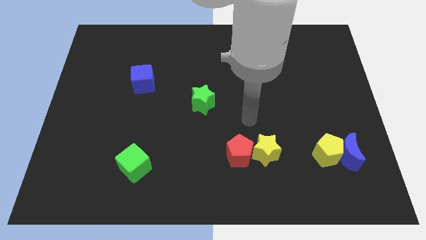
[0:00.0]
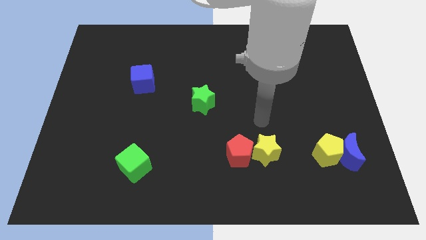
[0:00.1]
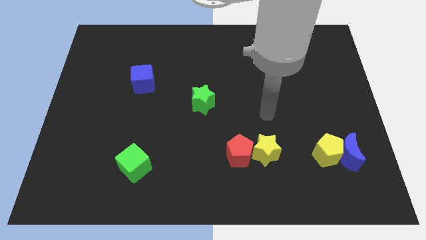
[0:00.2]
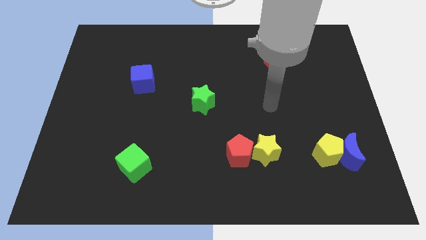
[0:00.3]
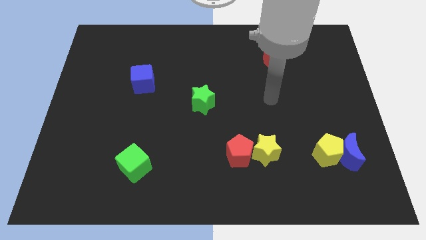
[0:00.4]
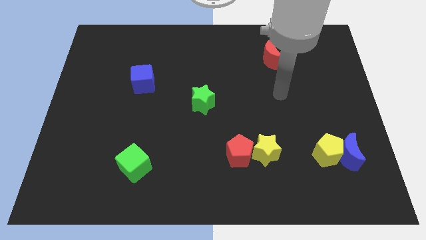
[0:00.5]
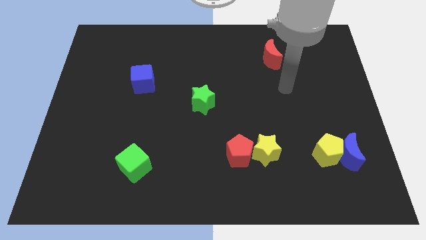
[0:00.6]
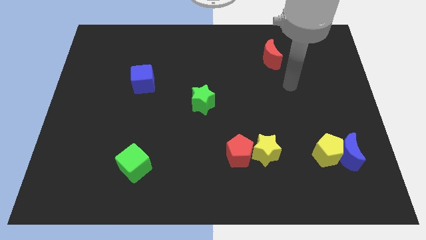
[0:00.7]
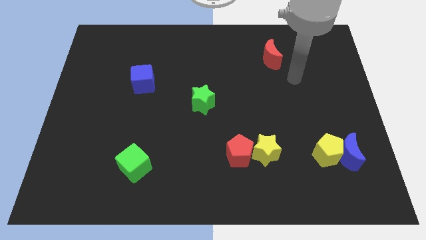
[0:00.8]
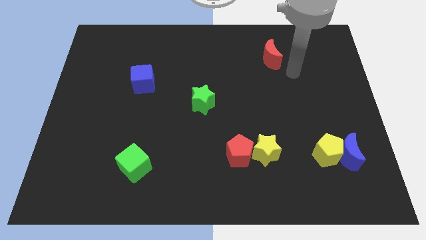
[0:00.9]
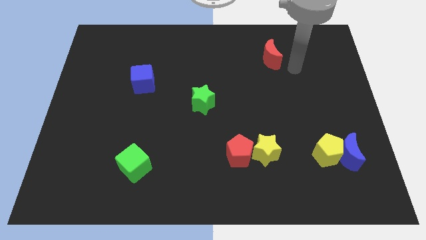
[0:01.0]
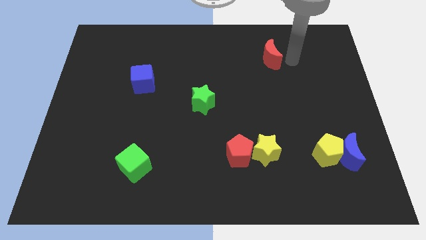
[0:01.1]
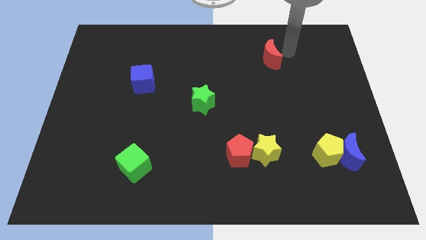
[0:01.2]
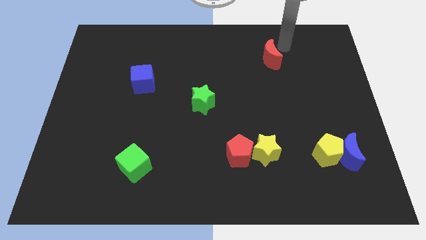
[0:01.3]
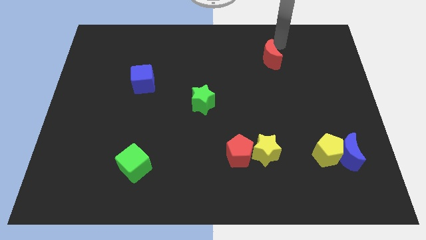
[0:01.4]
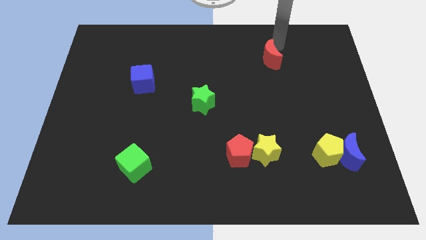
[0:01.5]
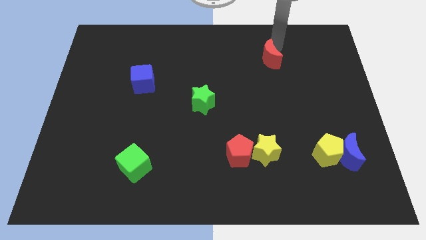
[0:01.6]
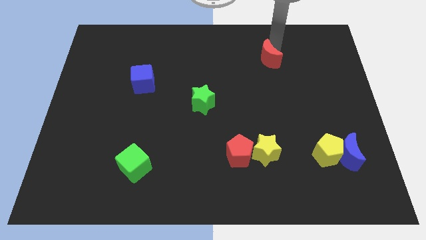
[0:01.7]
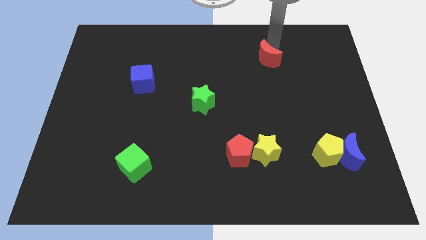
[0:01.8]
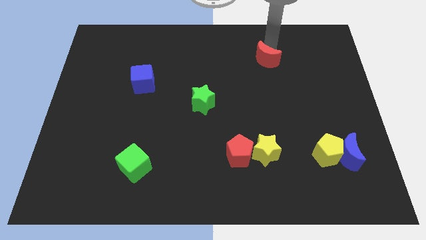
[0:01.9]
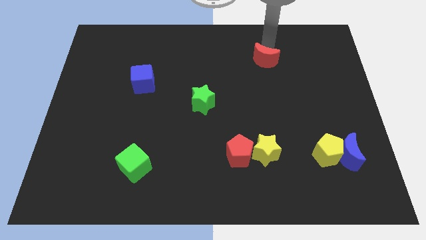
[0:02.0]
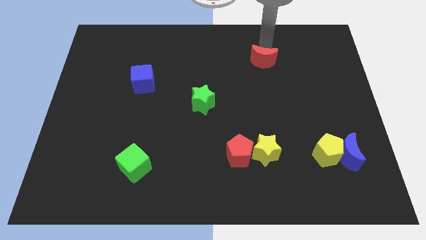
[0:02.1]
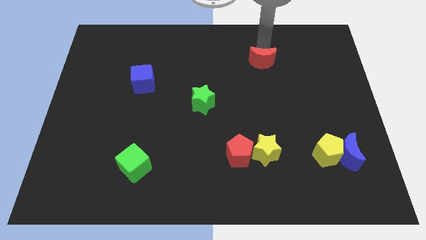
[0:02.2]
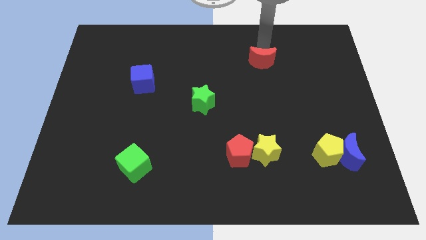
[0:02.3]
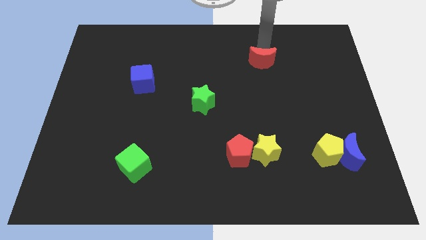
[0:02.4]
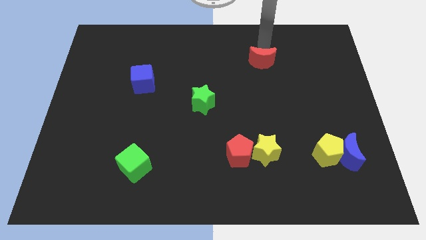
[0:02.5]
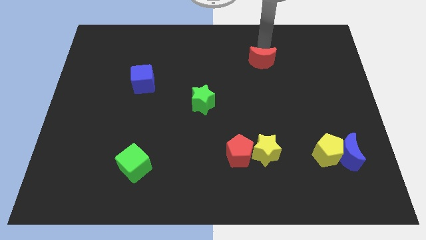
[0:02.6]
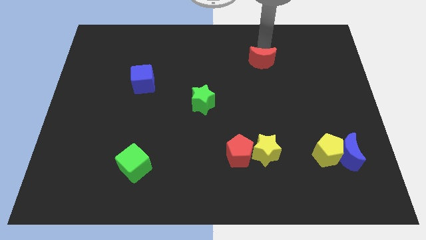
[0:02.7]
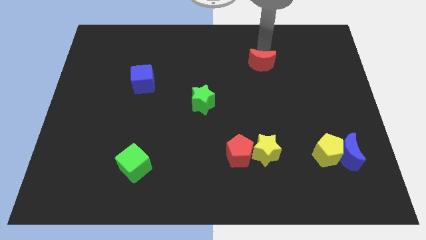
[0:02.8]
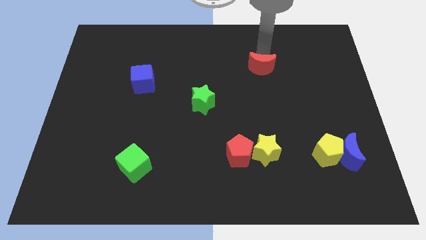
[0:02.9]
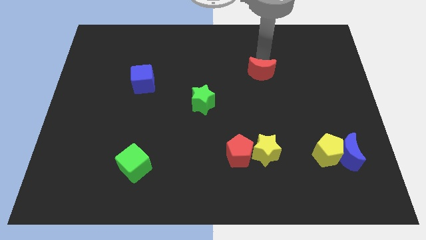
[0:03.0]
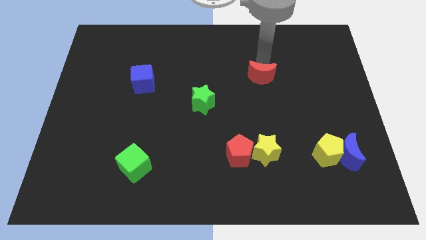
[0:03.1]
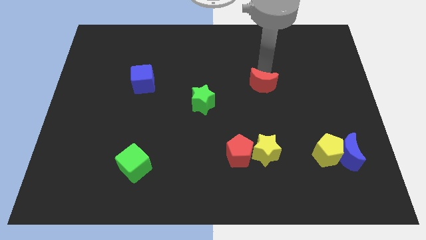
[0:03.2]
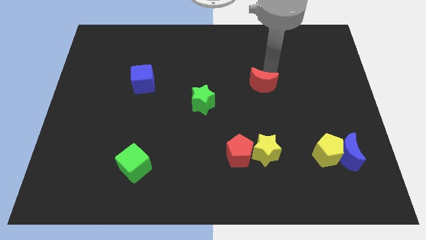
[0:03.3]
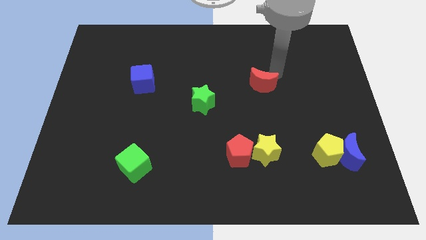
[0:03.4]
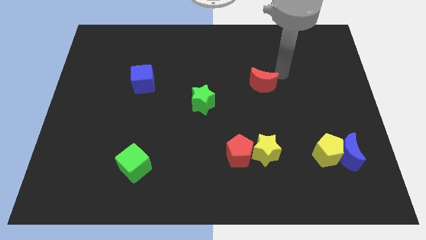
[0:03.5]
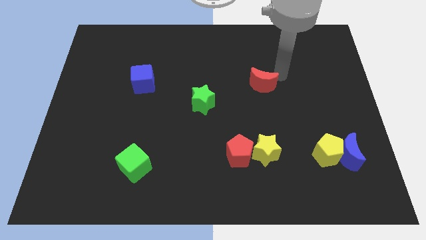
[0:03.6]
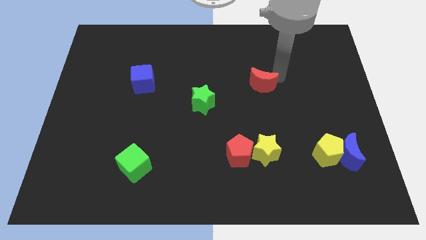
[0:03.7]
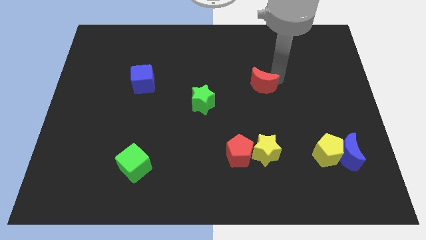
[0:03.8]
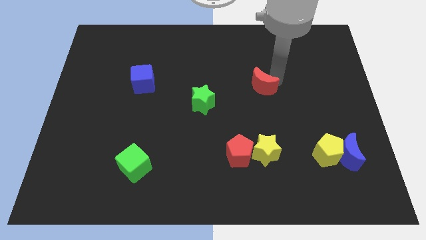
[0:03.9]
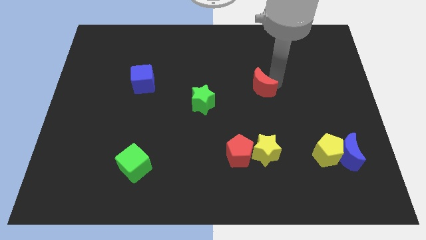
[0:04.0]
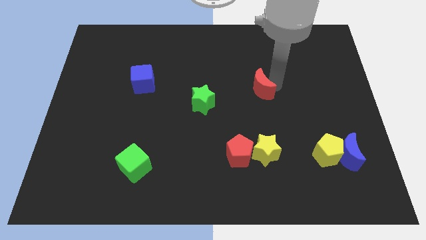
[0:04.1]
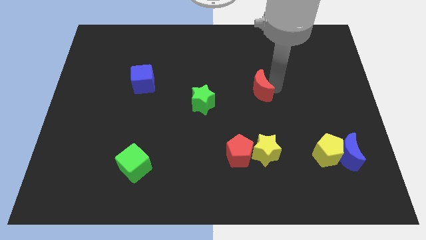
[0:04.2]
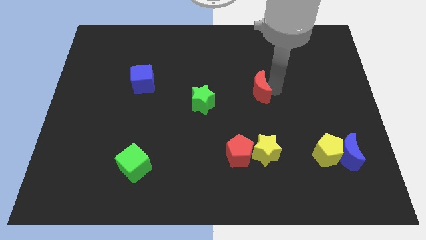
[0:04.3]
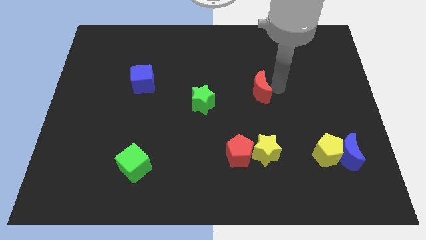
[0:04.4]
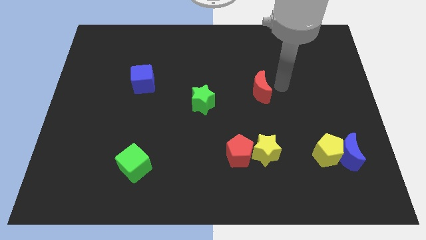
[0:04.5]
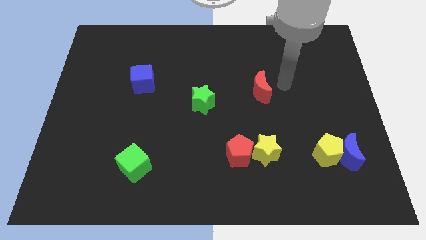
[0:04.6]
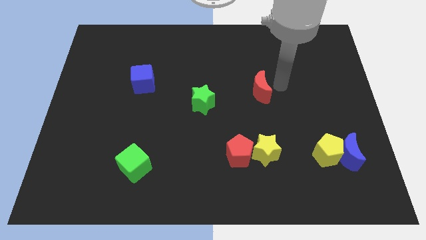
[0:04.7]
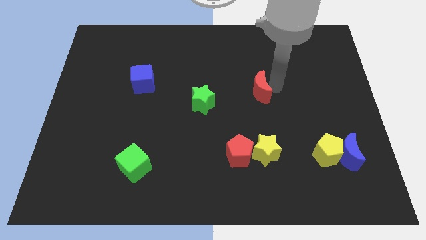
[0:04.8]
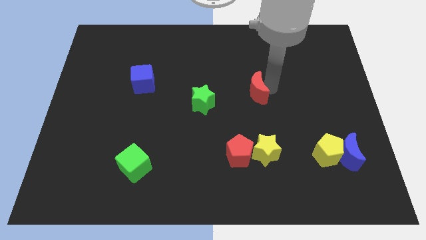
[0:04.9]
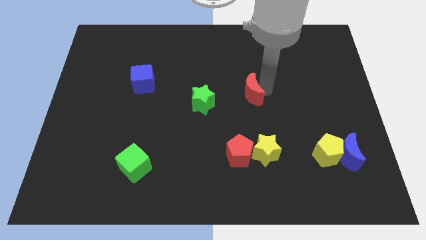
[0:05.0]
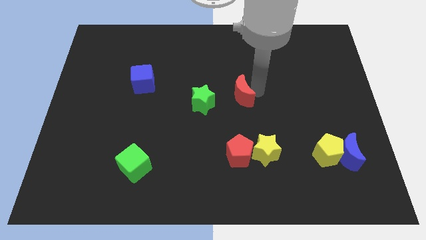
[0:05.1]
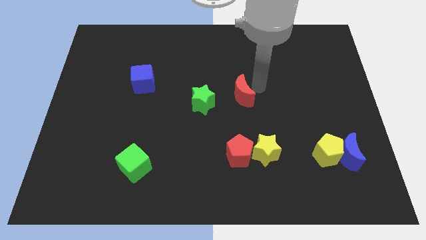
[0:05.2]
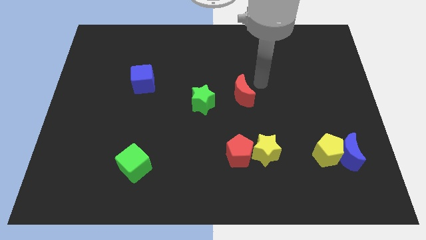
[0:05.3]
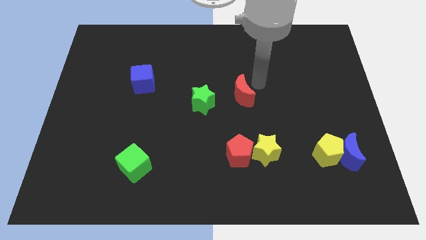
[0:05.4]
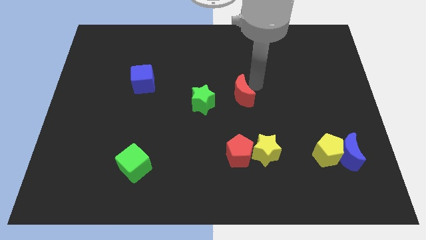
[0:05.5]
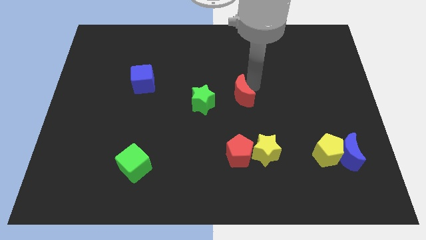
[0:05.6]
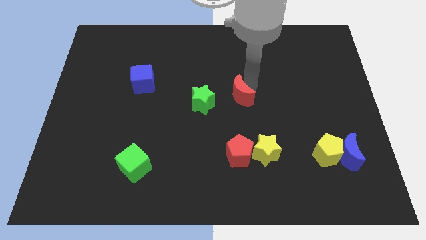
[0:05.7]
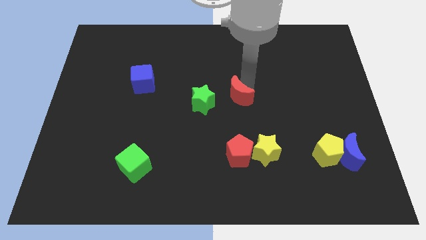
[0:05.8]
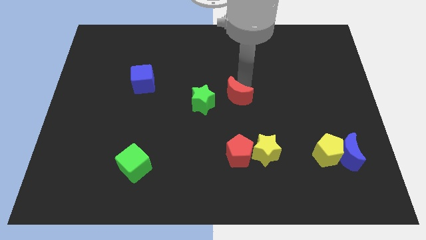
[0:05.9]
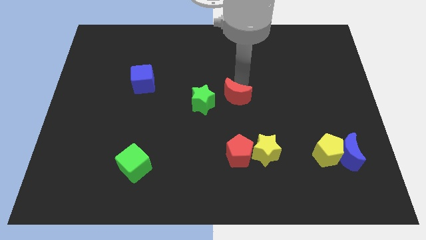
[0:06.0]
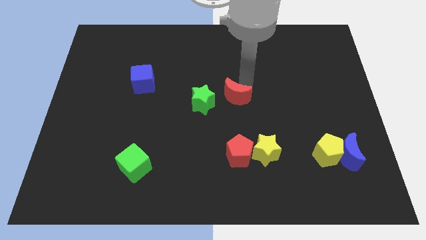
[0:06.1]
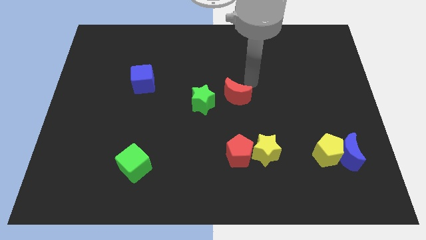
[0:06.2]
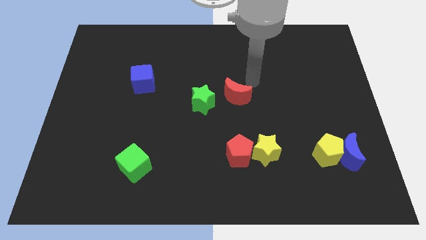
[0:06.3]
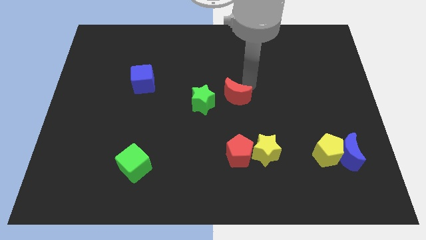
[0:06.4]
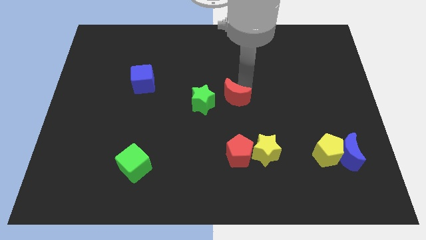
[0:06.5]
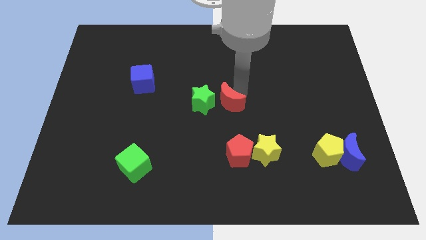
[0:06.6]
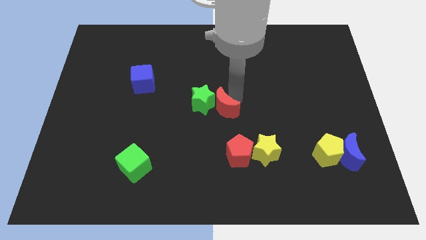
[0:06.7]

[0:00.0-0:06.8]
move the red moon down and then to the left

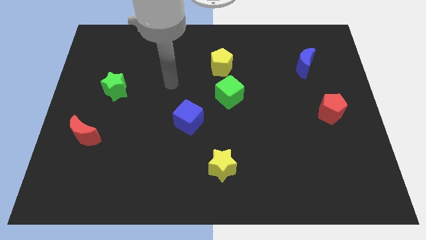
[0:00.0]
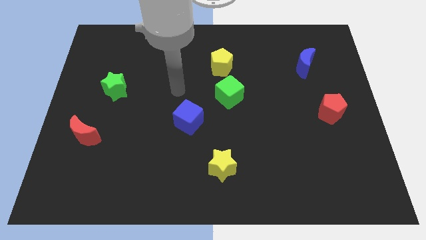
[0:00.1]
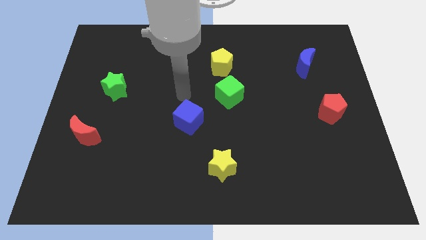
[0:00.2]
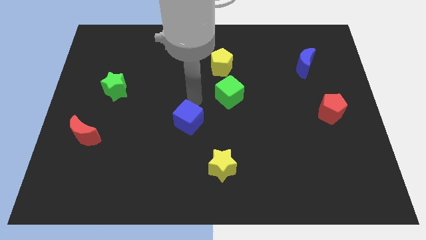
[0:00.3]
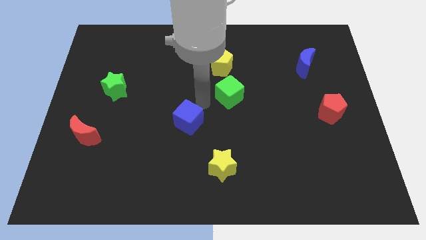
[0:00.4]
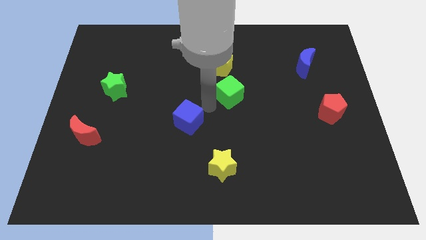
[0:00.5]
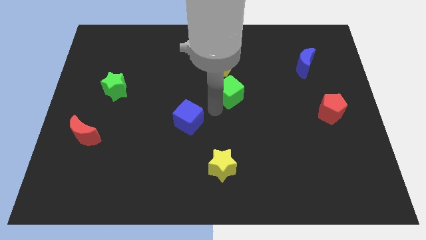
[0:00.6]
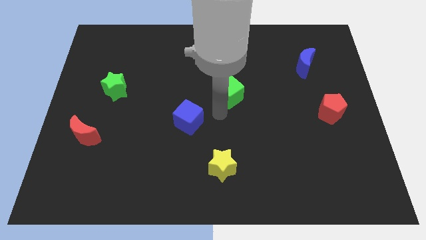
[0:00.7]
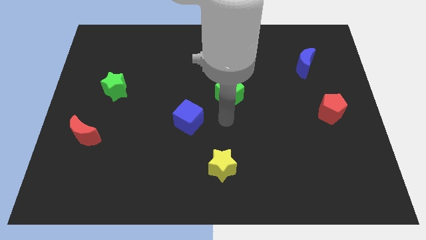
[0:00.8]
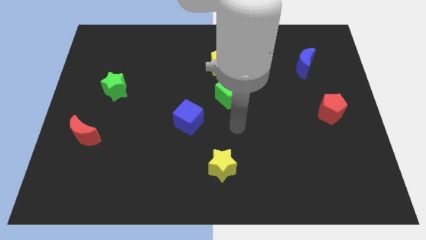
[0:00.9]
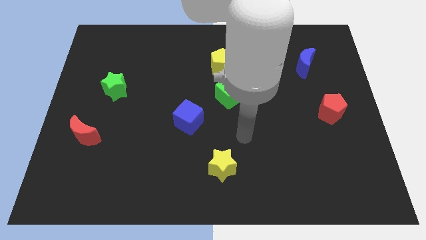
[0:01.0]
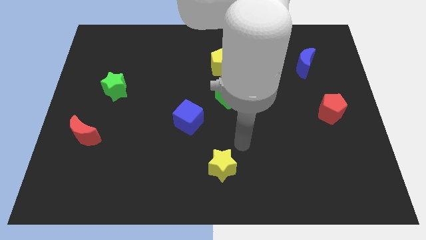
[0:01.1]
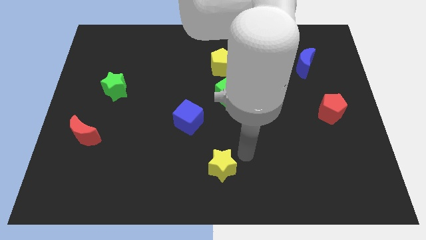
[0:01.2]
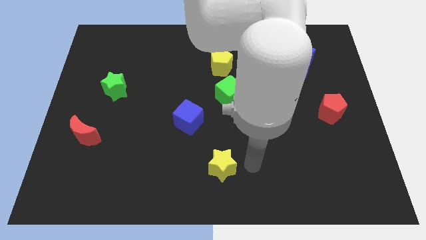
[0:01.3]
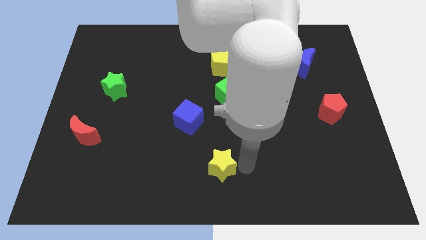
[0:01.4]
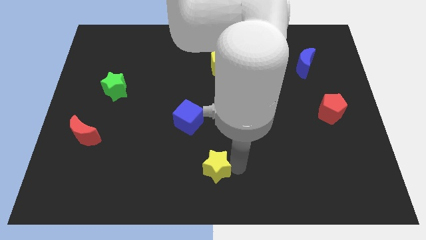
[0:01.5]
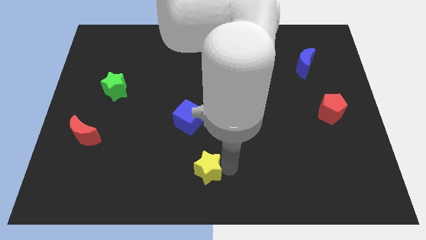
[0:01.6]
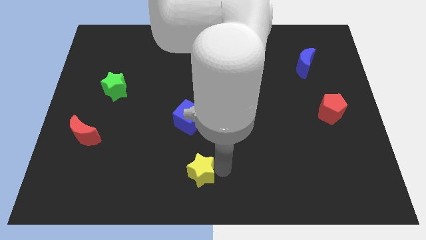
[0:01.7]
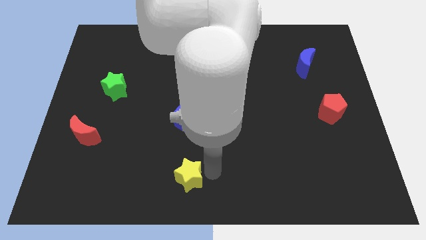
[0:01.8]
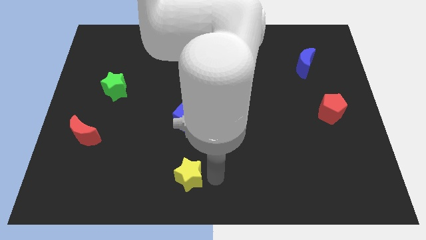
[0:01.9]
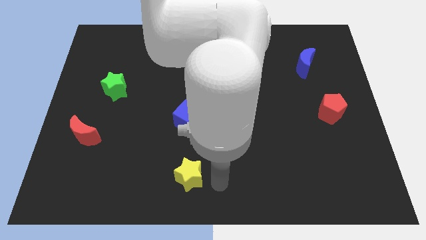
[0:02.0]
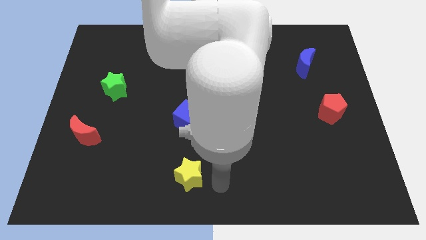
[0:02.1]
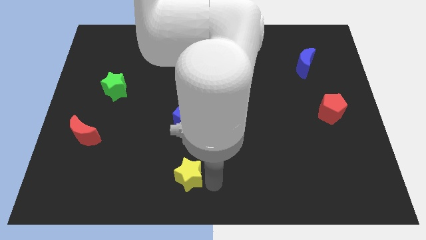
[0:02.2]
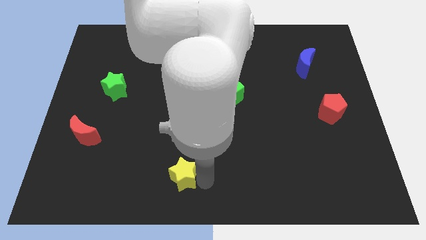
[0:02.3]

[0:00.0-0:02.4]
push the yellow star a bit to the left
